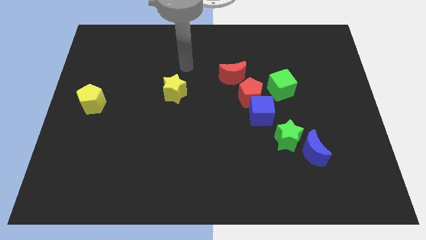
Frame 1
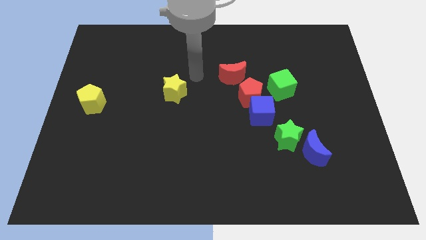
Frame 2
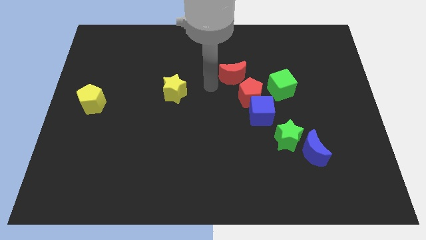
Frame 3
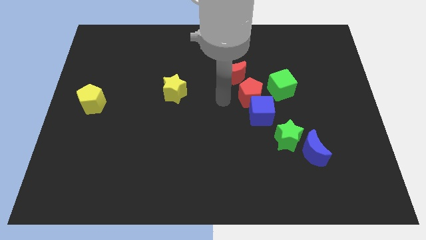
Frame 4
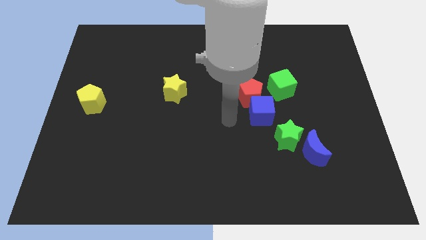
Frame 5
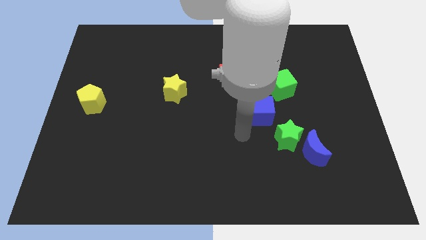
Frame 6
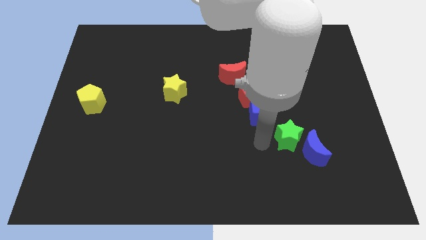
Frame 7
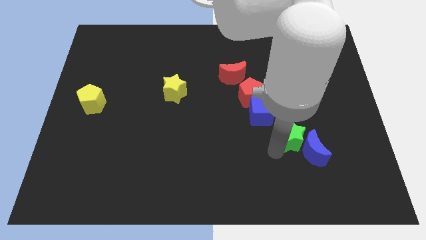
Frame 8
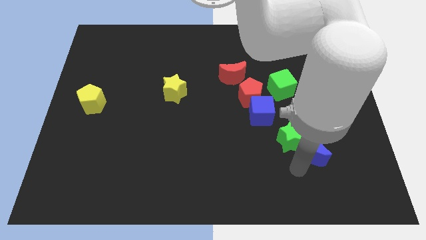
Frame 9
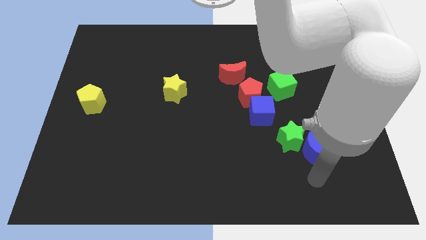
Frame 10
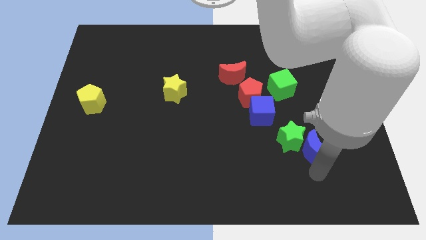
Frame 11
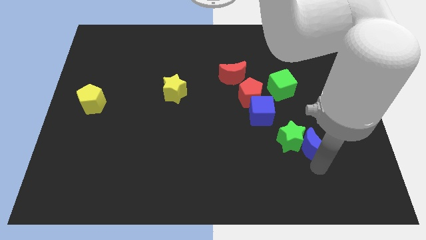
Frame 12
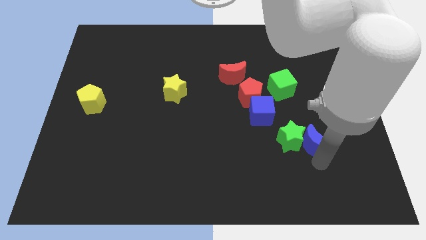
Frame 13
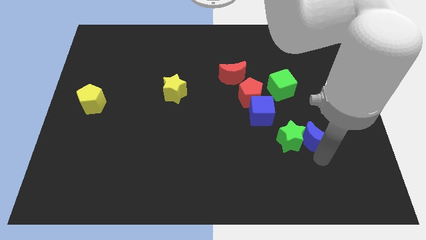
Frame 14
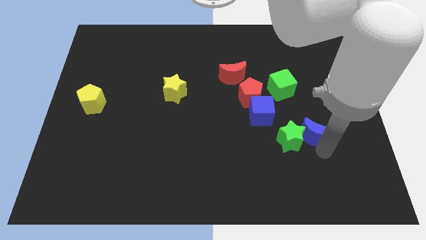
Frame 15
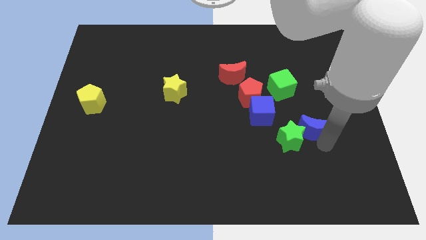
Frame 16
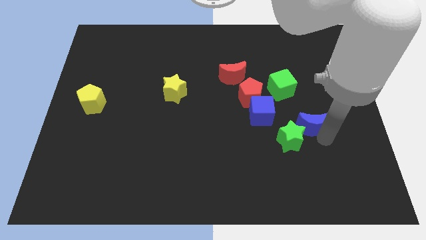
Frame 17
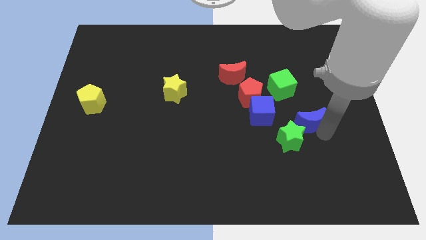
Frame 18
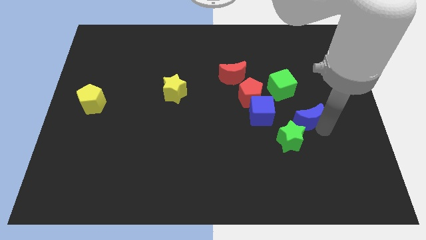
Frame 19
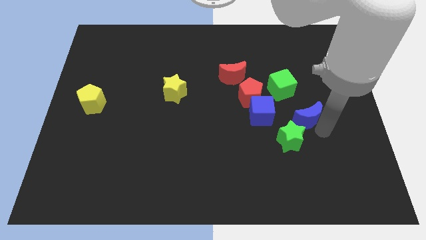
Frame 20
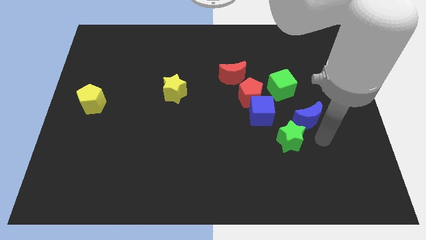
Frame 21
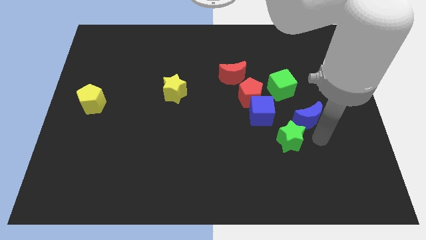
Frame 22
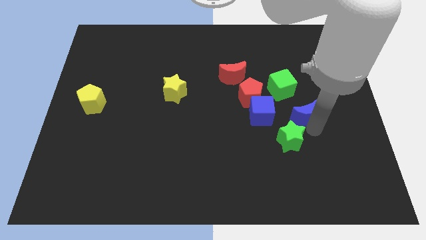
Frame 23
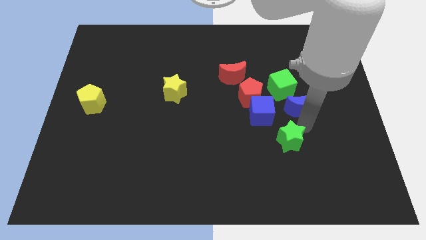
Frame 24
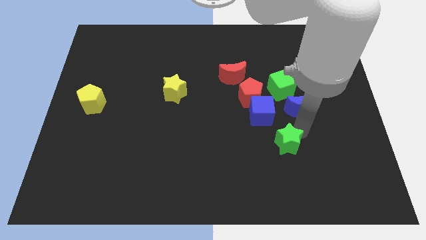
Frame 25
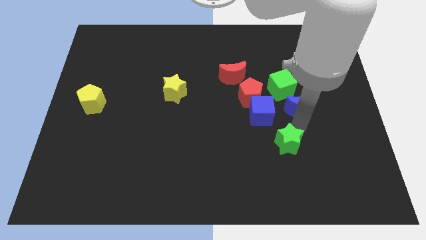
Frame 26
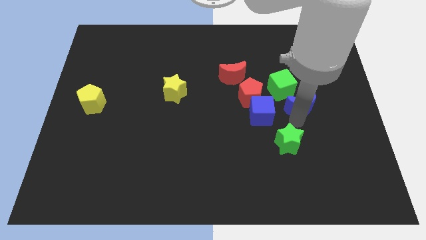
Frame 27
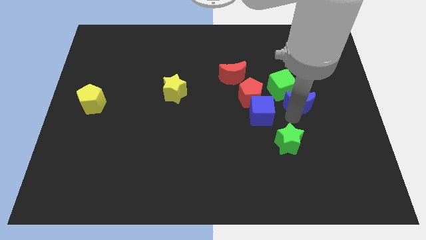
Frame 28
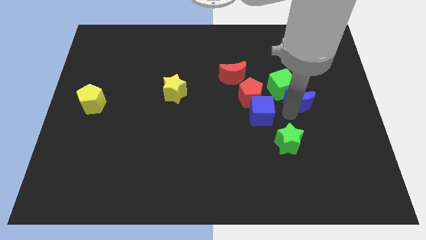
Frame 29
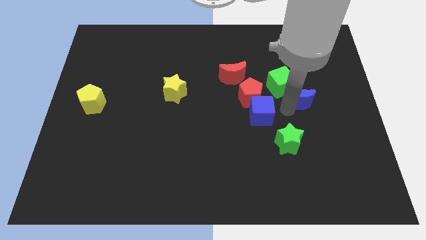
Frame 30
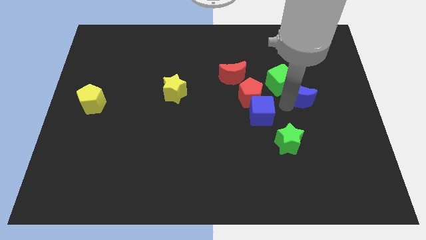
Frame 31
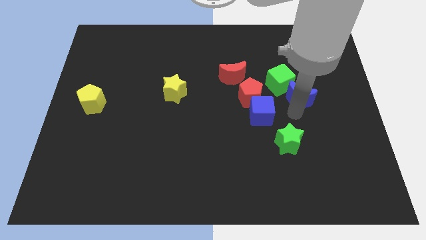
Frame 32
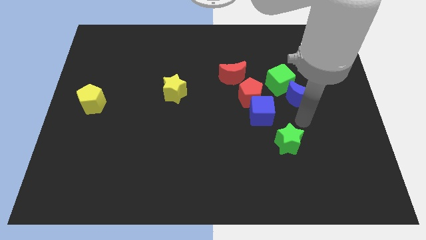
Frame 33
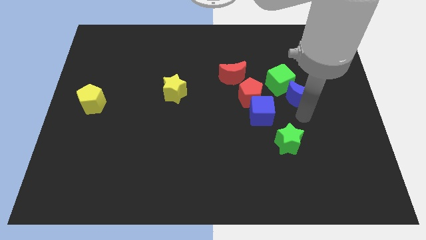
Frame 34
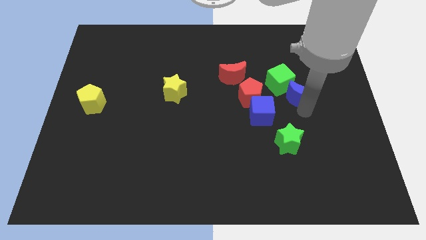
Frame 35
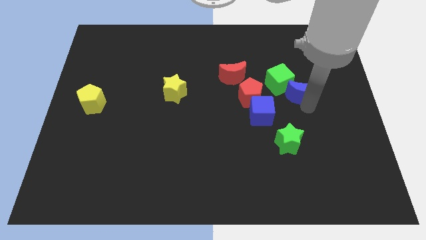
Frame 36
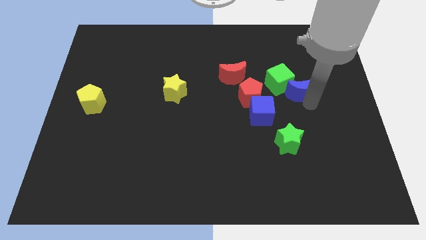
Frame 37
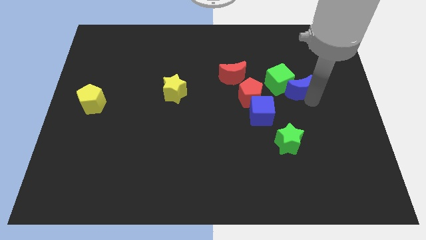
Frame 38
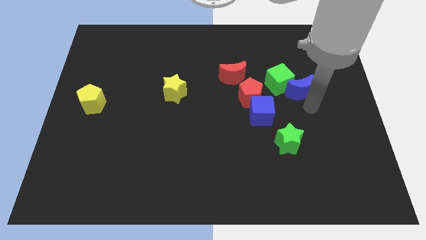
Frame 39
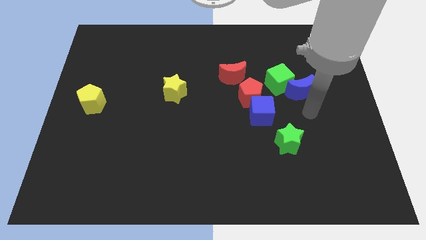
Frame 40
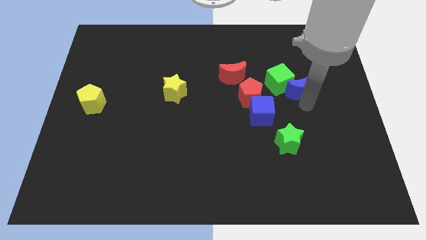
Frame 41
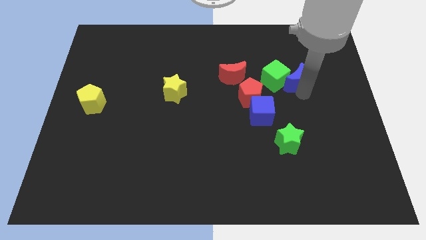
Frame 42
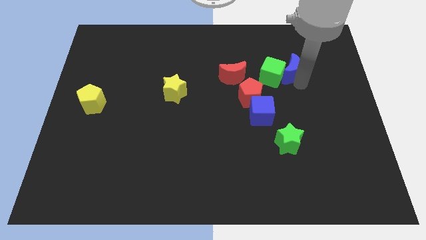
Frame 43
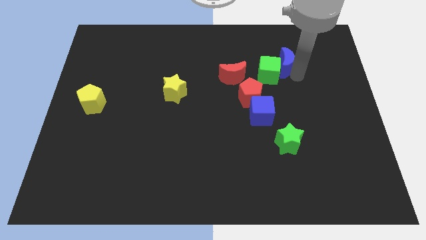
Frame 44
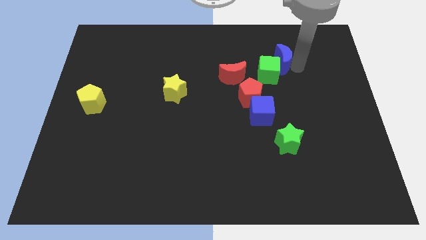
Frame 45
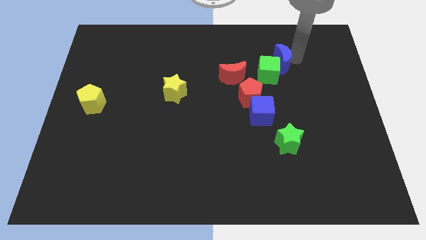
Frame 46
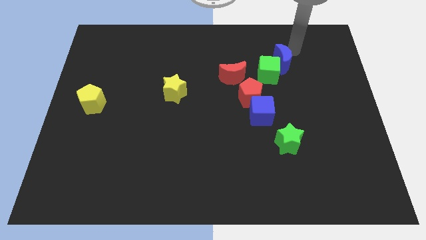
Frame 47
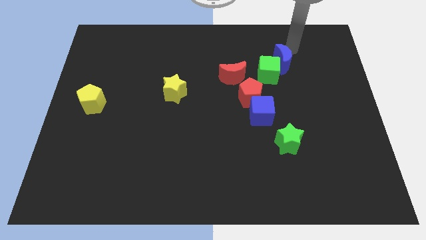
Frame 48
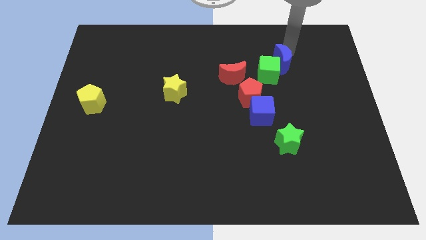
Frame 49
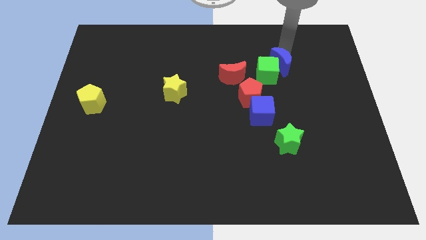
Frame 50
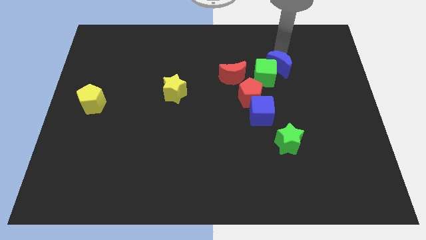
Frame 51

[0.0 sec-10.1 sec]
move the blue moon diagonally up and to the right of the red pentagon

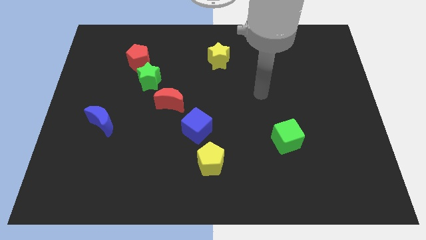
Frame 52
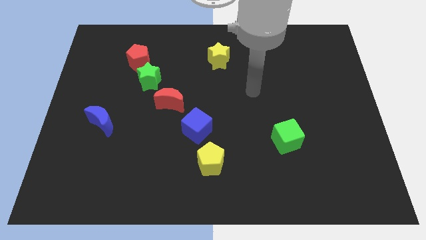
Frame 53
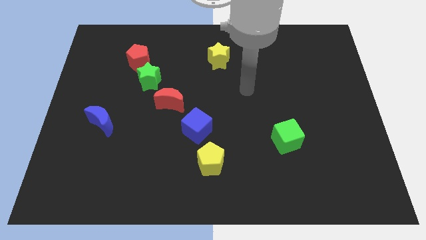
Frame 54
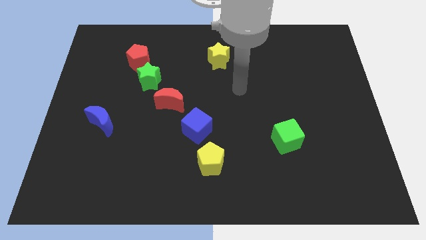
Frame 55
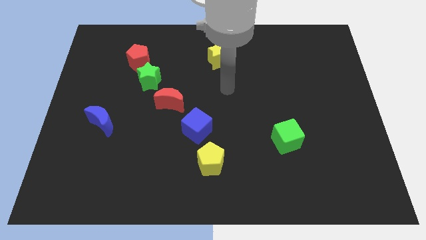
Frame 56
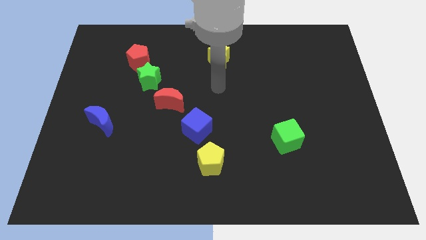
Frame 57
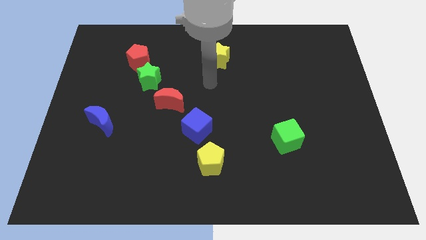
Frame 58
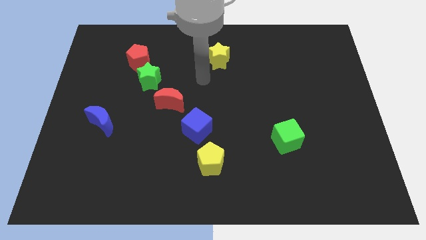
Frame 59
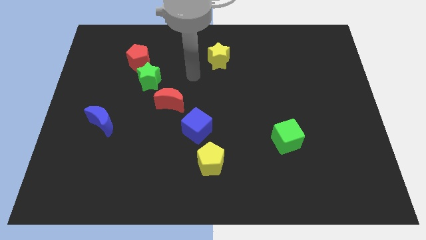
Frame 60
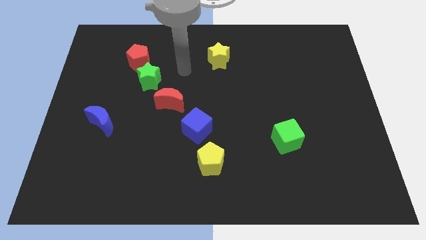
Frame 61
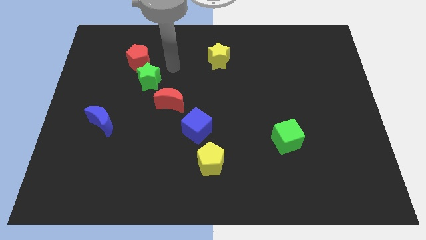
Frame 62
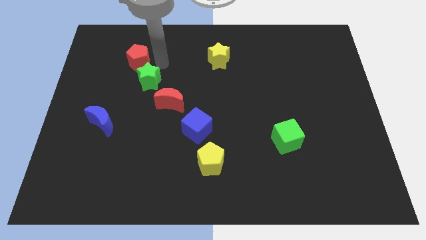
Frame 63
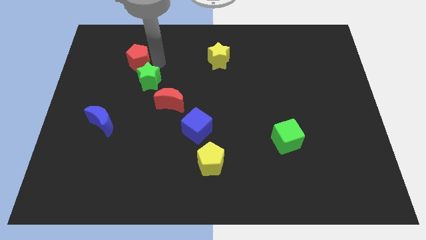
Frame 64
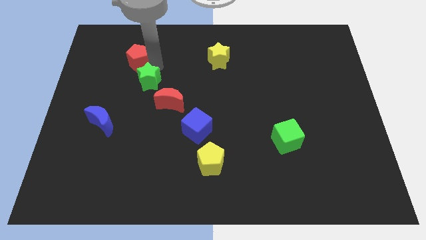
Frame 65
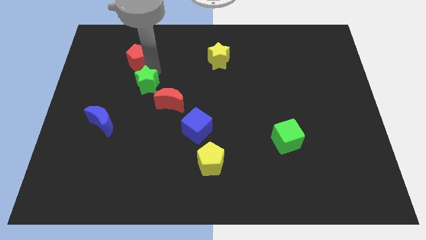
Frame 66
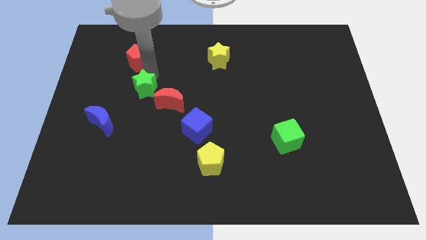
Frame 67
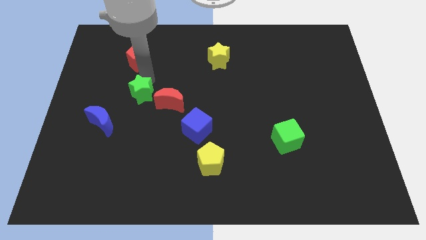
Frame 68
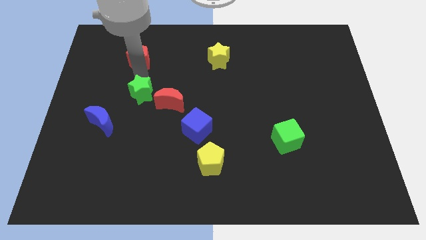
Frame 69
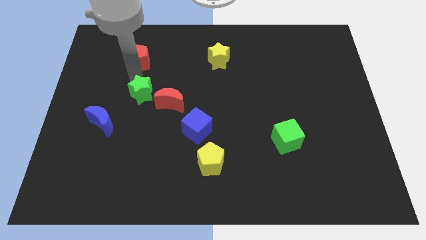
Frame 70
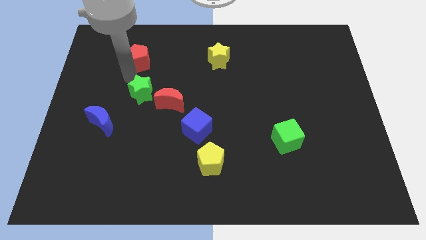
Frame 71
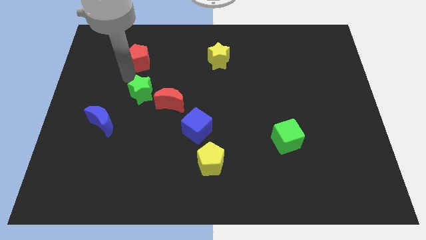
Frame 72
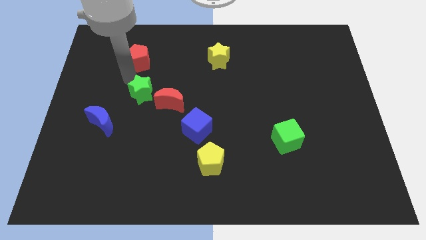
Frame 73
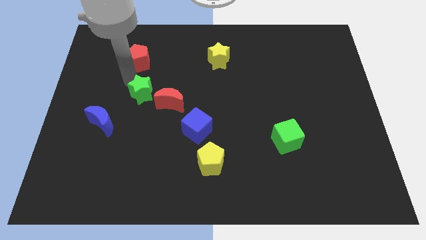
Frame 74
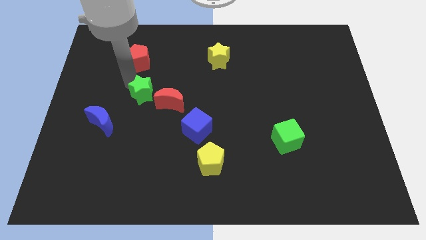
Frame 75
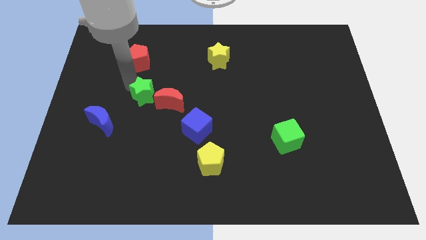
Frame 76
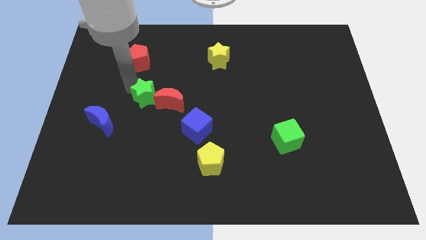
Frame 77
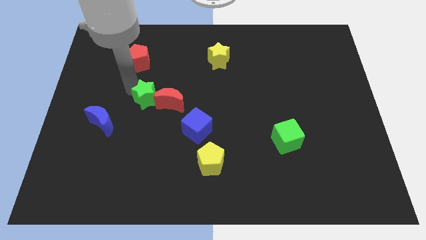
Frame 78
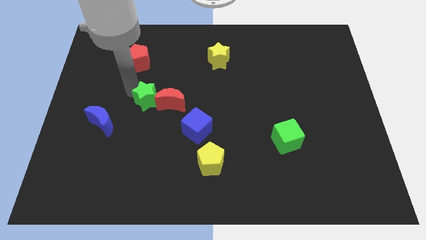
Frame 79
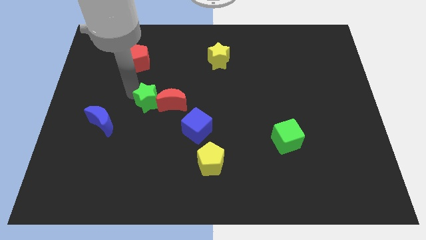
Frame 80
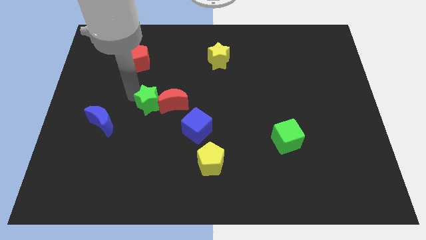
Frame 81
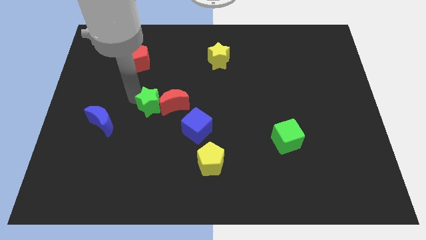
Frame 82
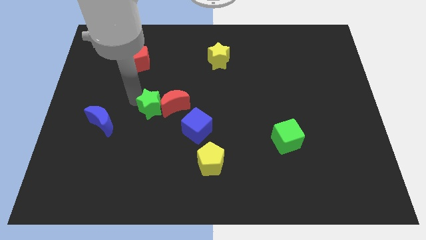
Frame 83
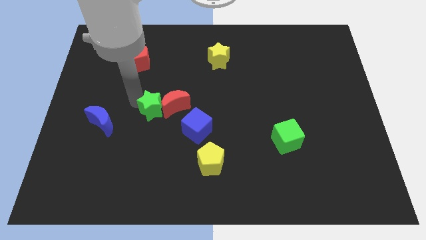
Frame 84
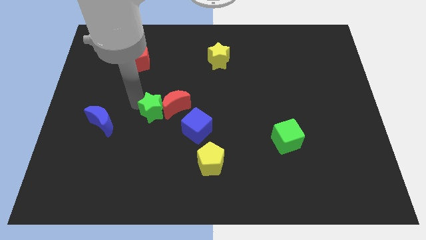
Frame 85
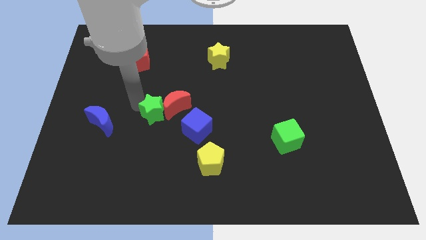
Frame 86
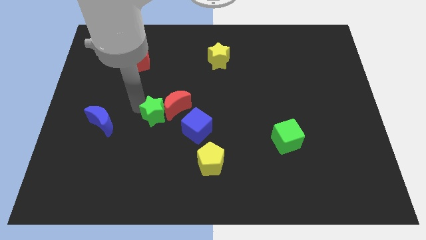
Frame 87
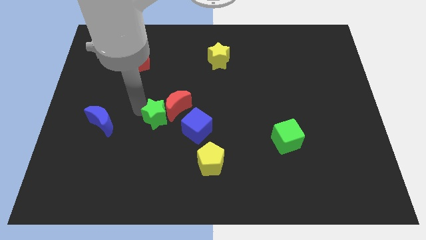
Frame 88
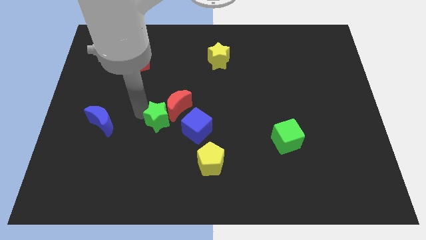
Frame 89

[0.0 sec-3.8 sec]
slide the green star to the bottom side of the red moon
